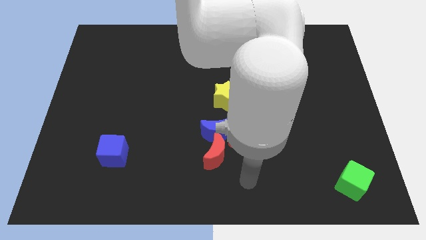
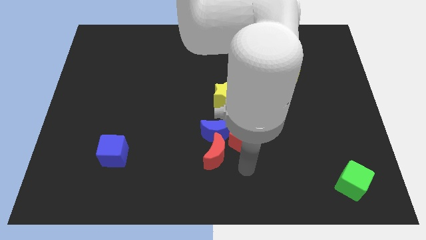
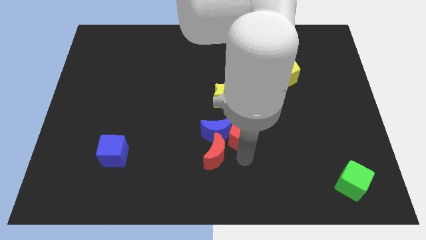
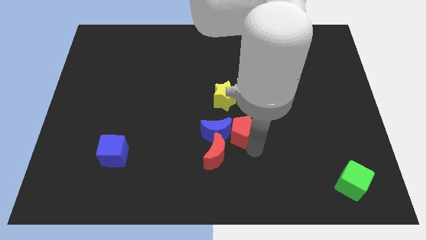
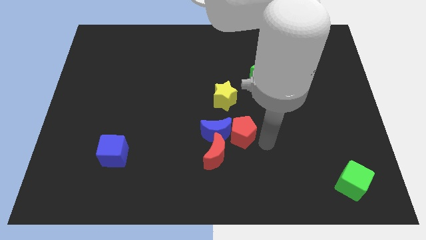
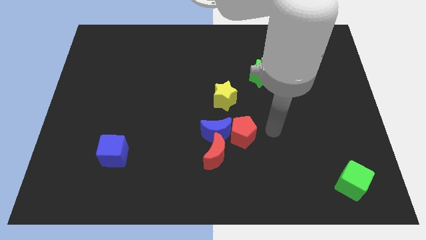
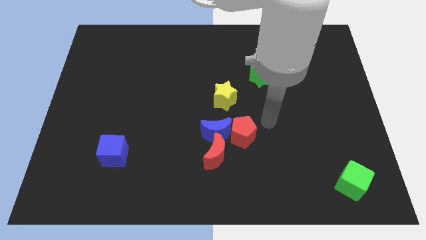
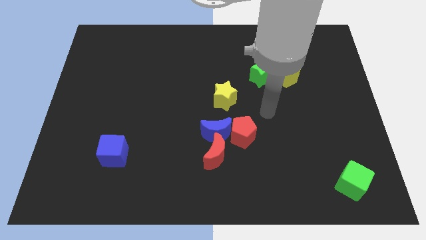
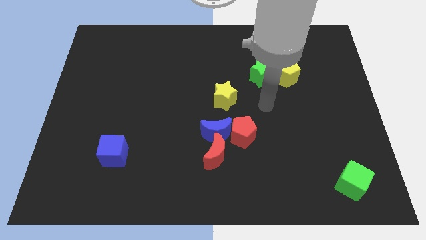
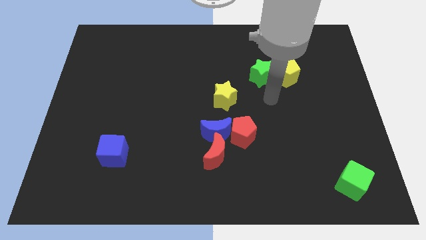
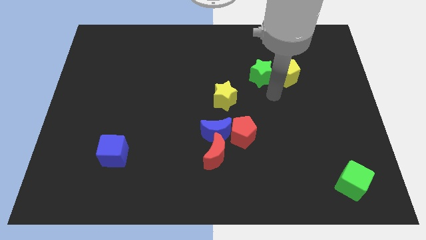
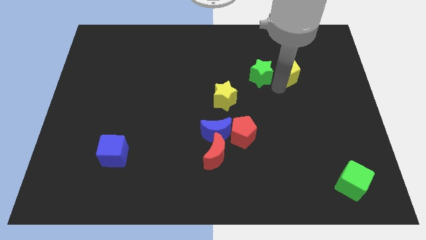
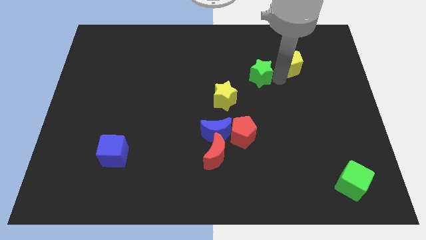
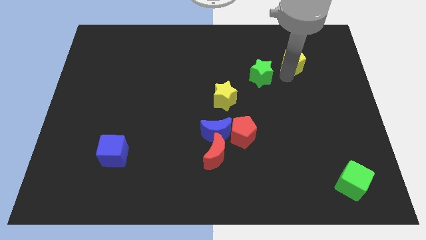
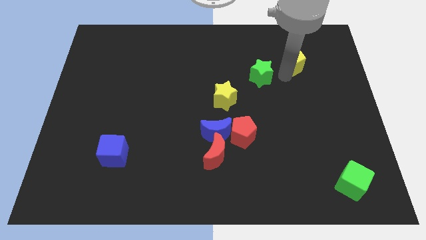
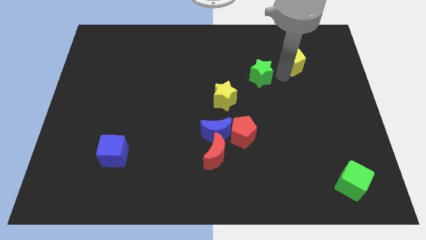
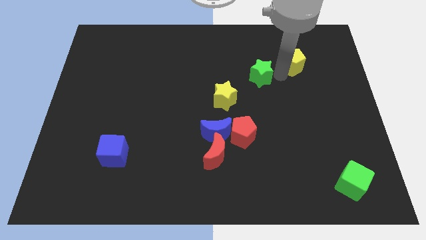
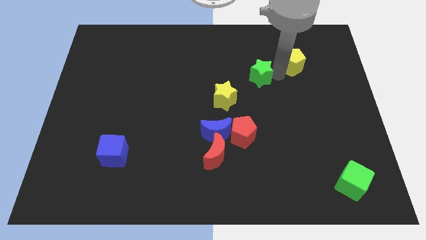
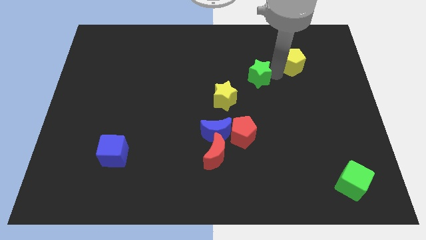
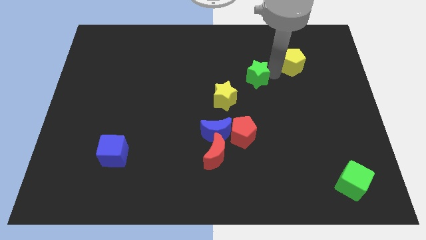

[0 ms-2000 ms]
move the green star away from the yellow pentagon

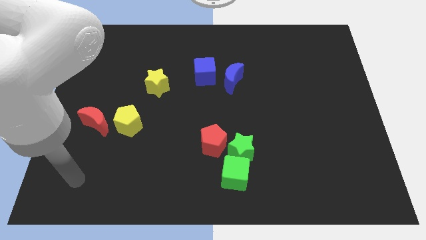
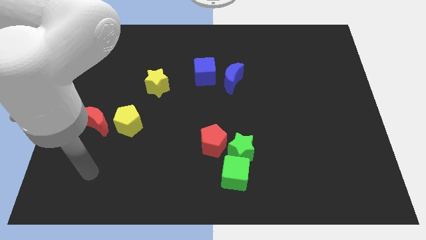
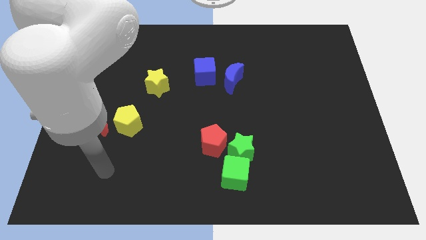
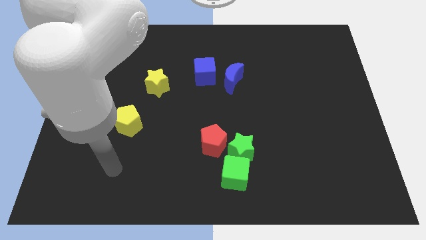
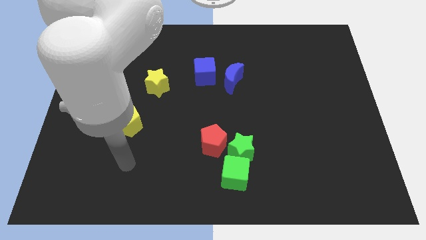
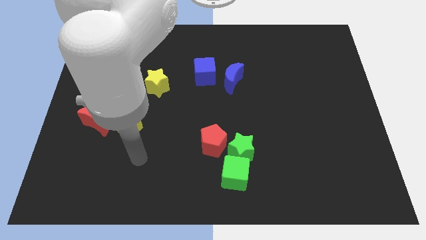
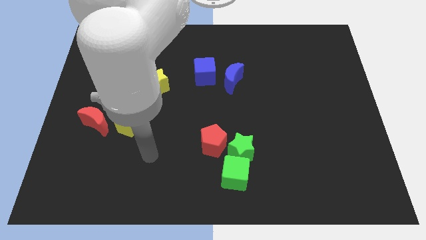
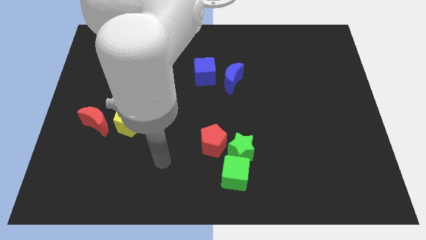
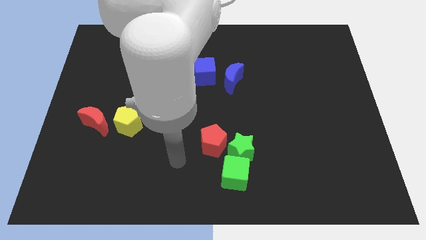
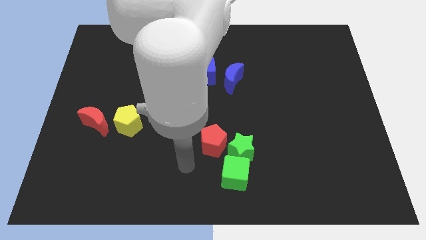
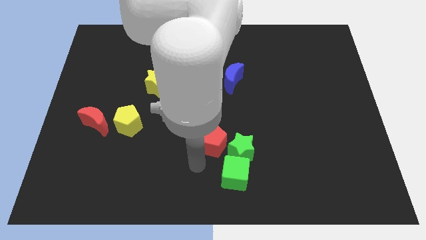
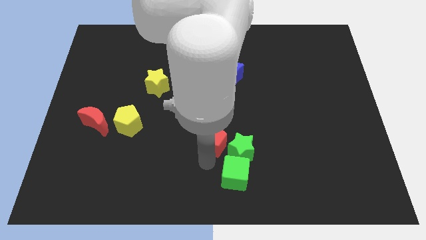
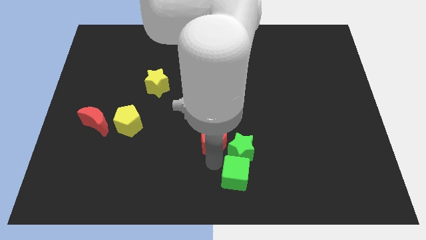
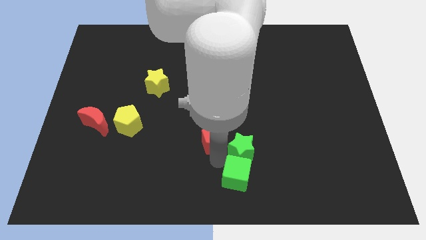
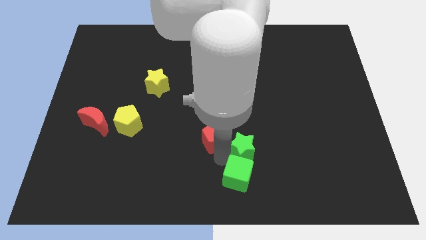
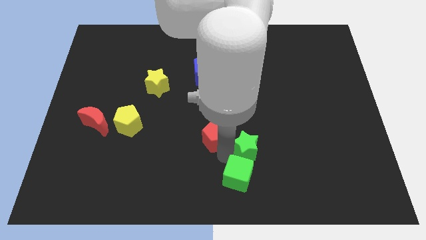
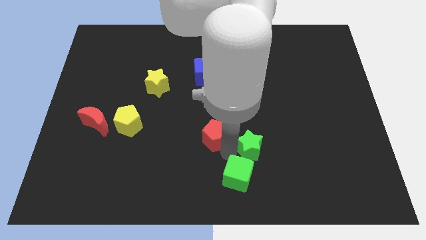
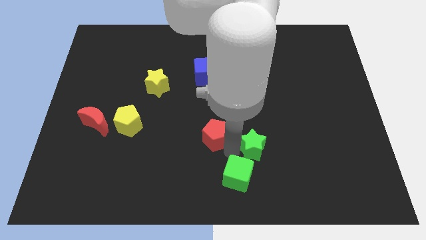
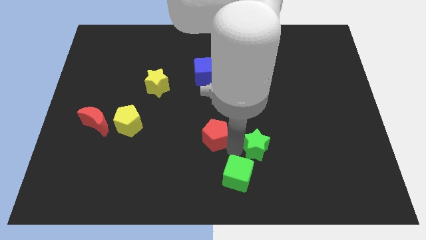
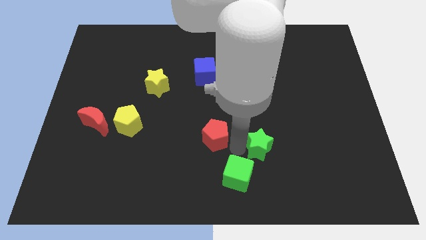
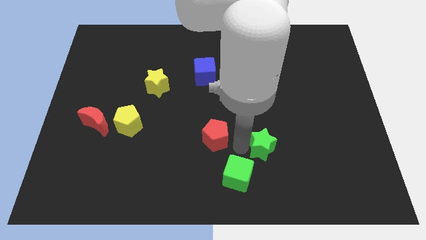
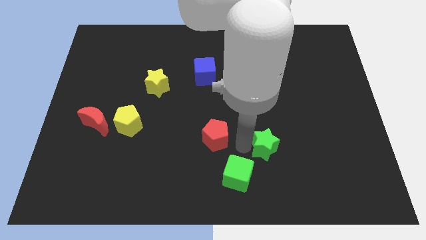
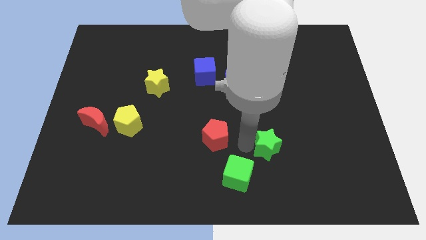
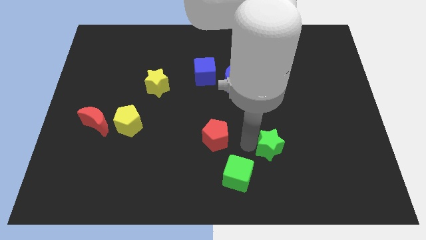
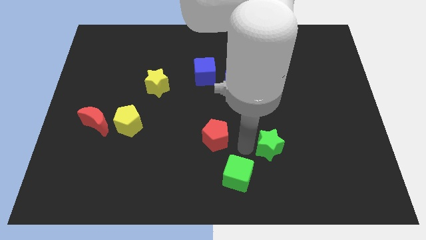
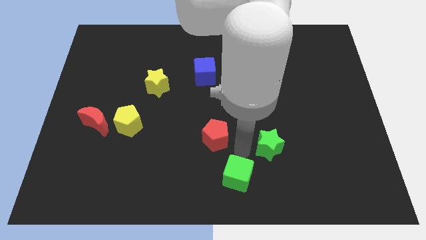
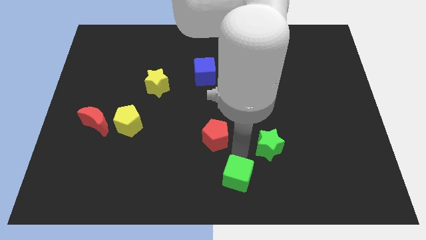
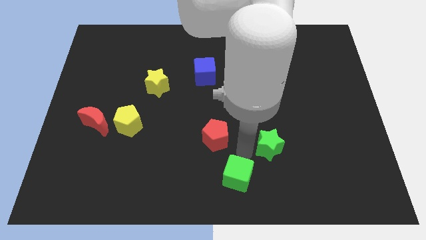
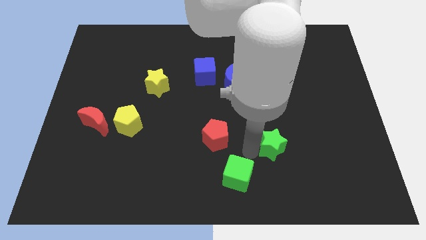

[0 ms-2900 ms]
move the green star away from the green cube and red pentagon

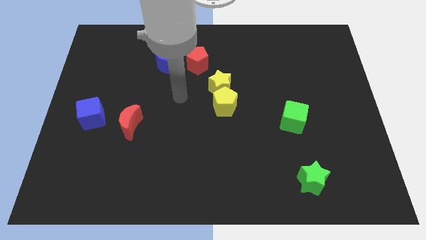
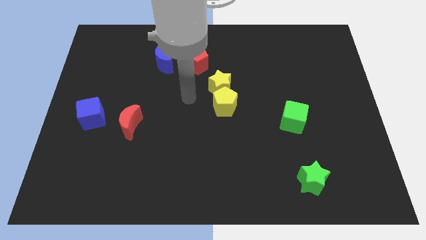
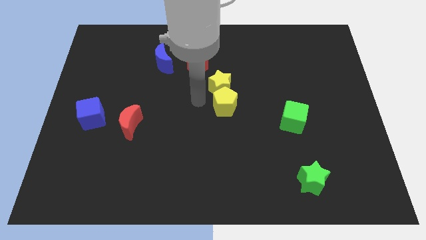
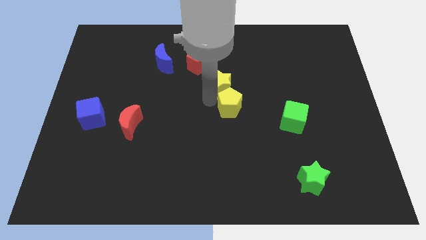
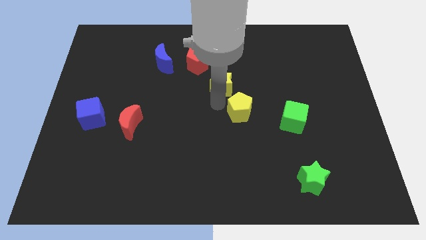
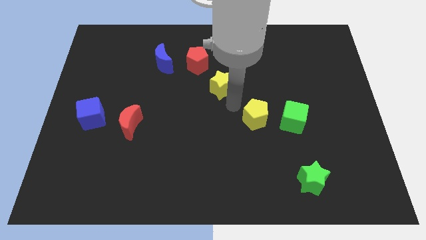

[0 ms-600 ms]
pull the yellow star apart from the yellow pentagon

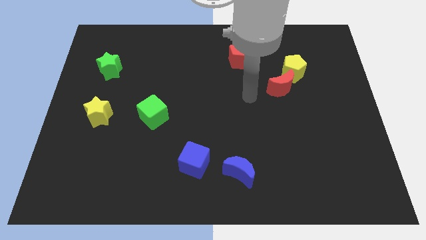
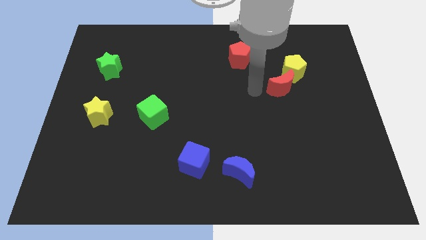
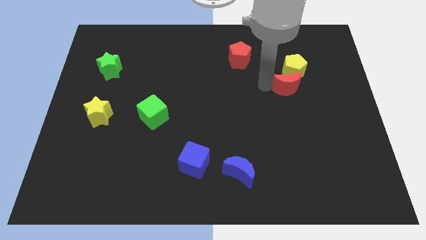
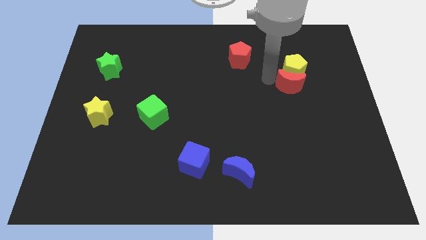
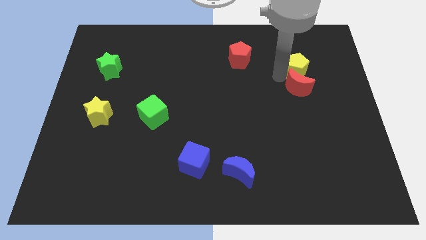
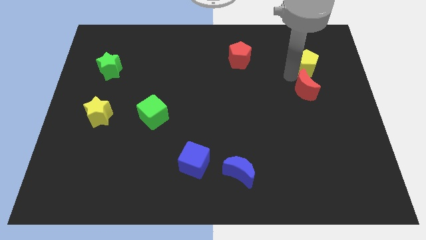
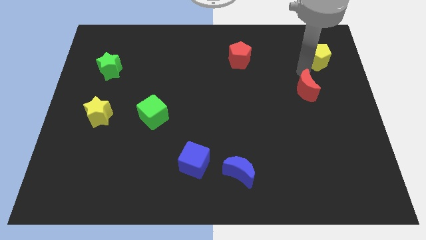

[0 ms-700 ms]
separate the red moon from the yellow pentagon

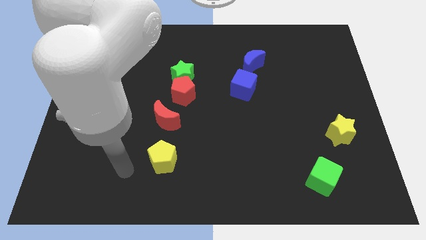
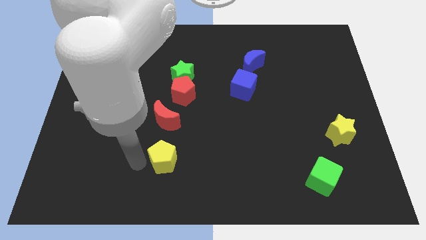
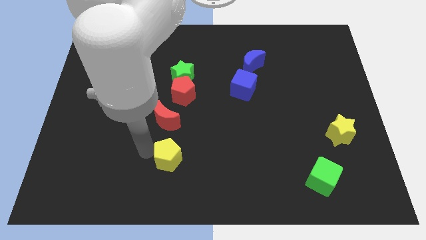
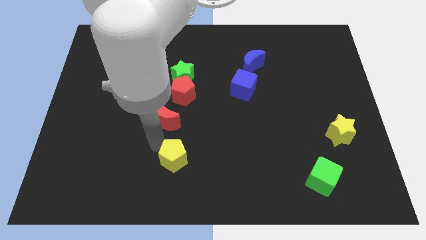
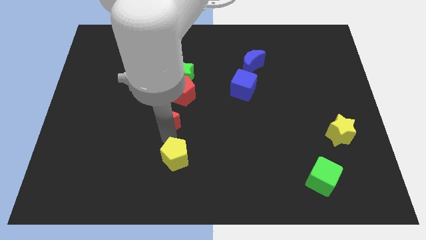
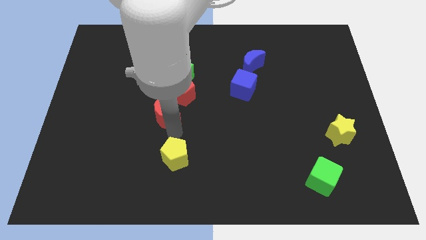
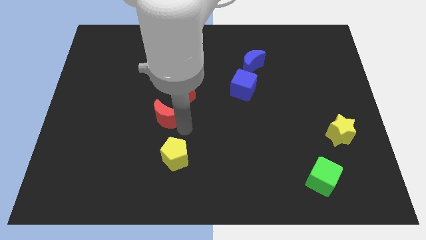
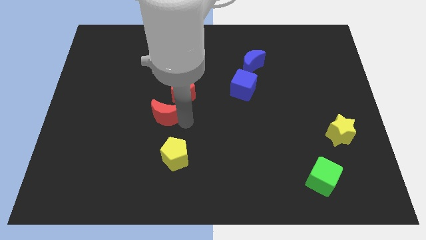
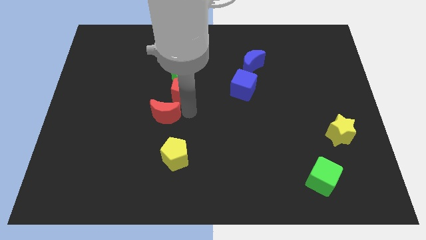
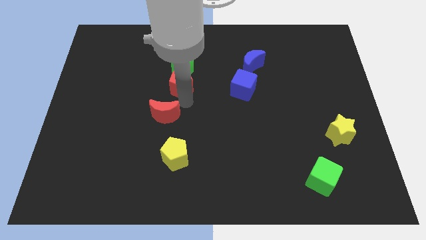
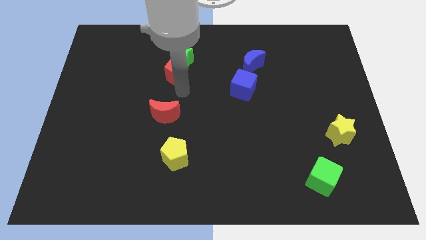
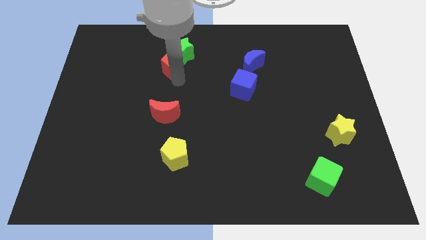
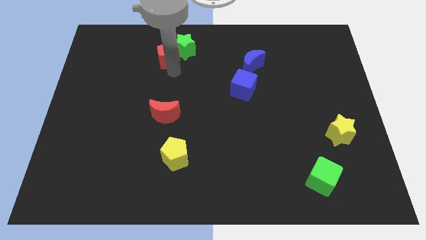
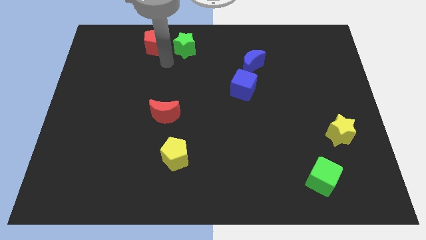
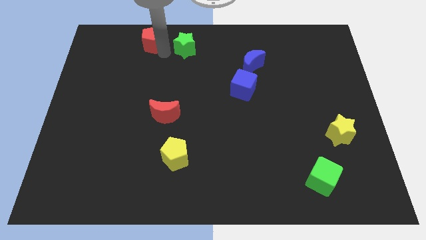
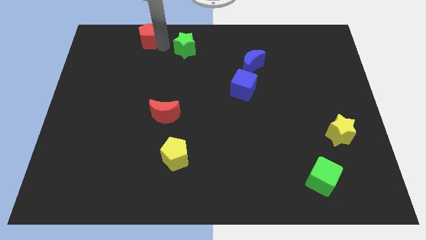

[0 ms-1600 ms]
pull the green star apart from the red pentagon

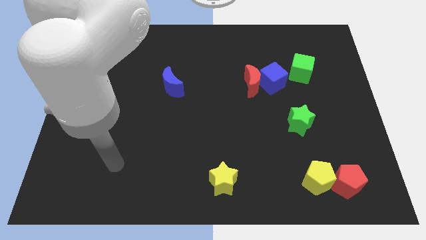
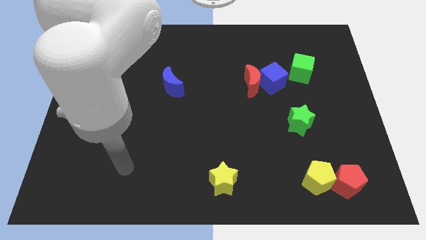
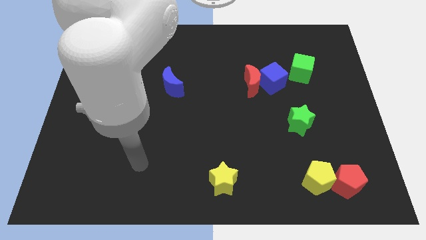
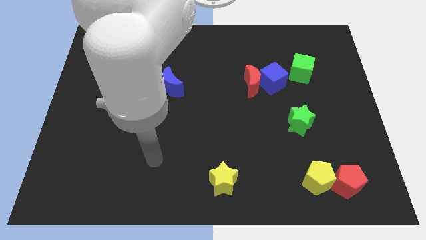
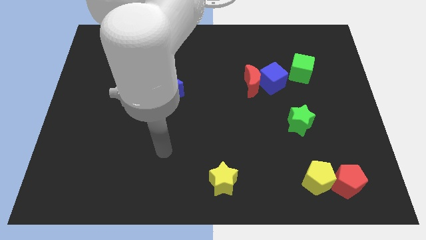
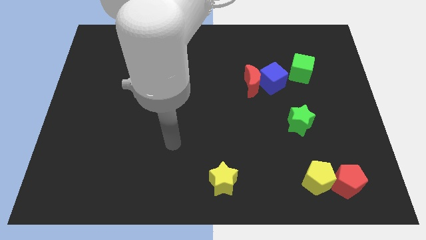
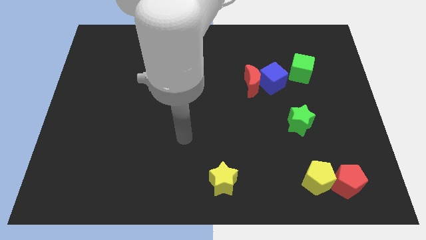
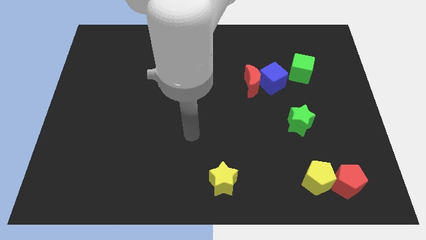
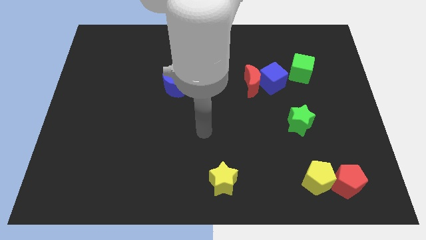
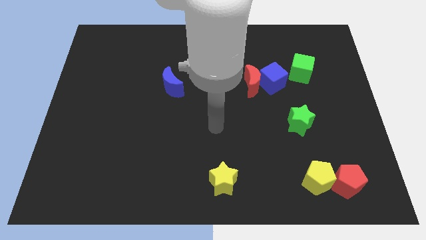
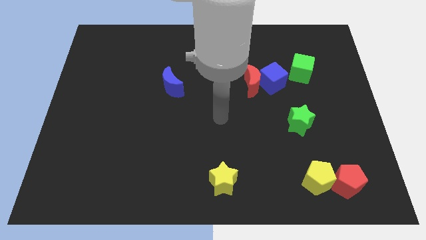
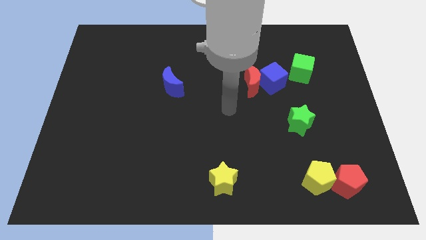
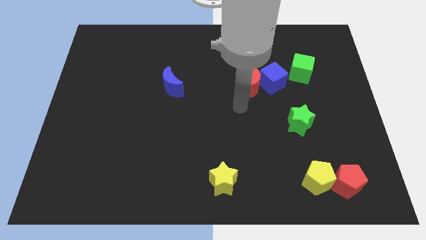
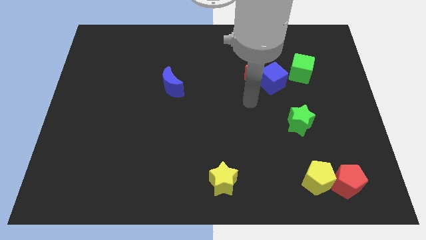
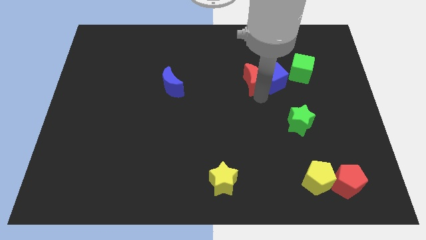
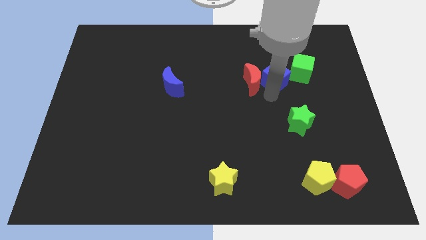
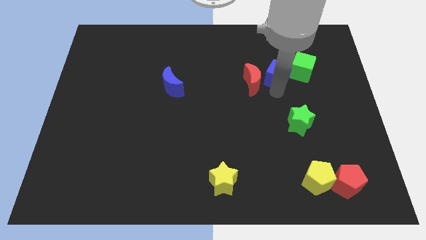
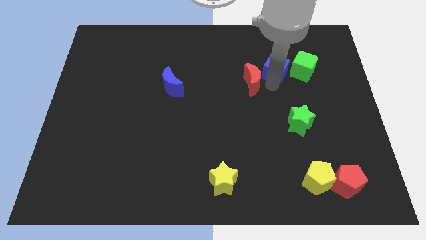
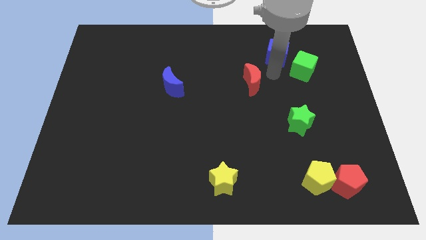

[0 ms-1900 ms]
separate the red moon from the blue cube
